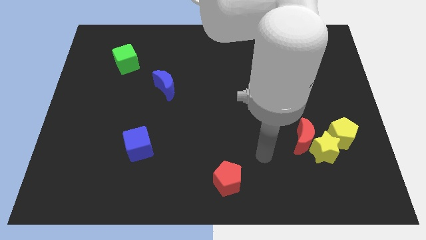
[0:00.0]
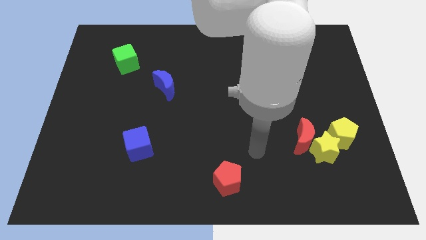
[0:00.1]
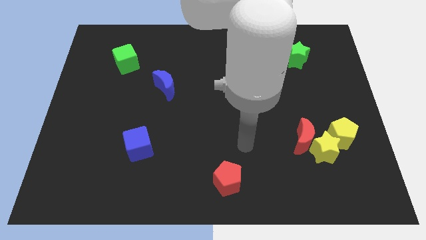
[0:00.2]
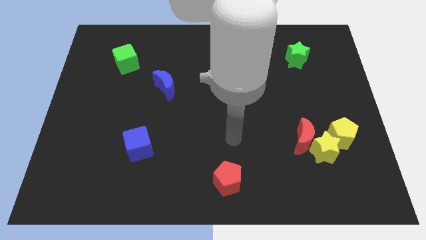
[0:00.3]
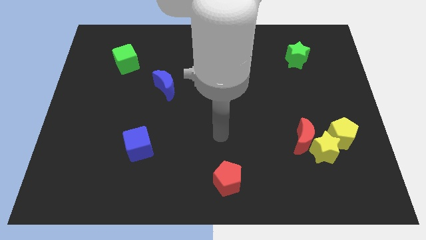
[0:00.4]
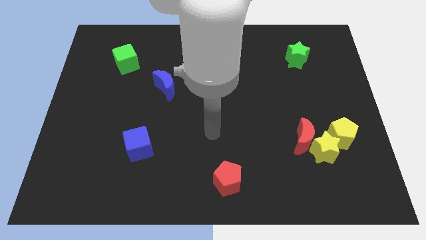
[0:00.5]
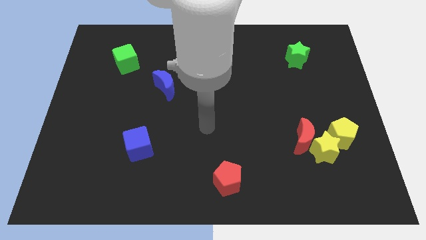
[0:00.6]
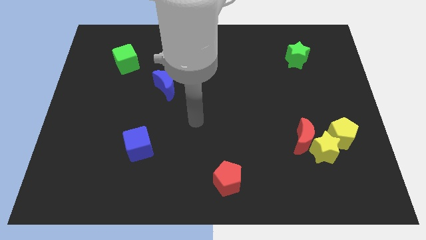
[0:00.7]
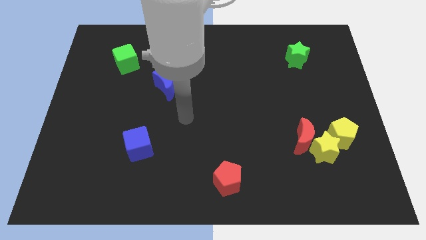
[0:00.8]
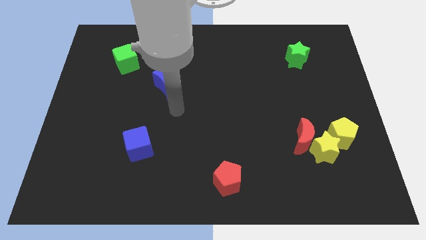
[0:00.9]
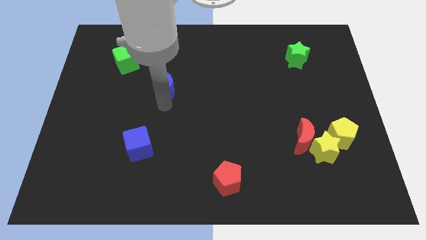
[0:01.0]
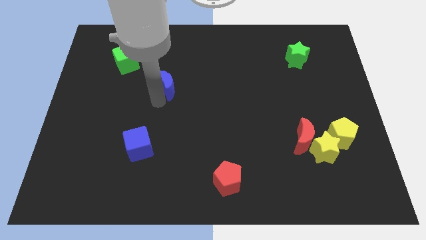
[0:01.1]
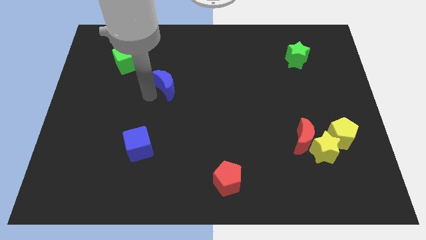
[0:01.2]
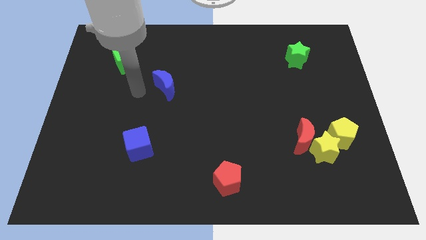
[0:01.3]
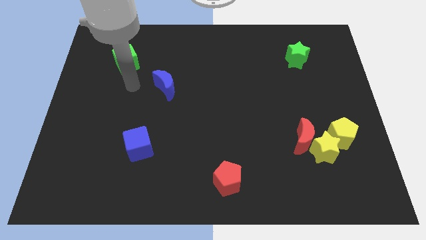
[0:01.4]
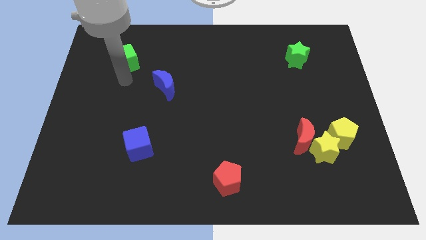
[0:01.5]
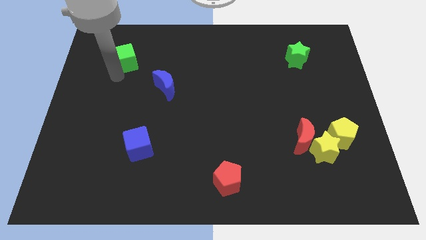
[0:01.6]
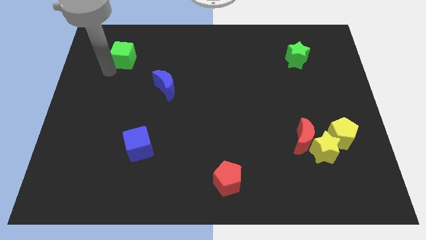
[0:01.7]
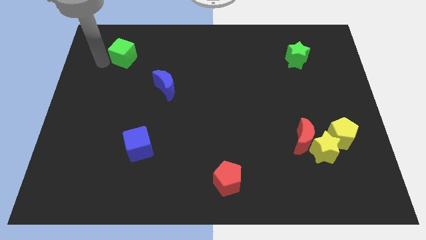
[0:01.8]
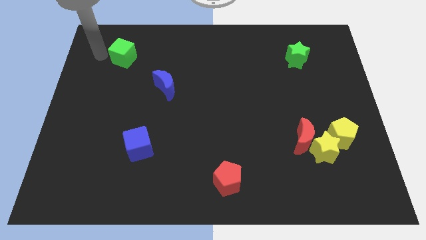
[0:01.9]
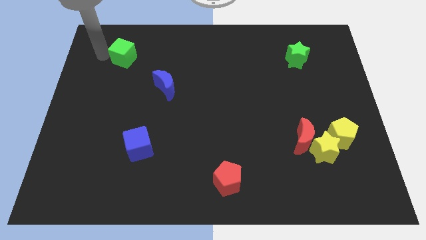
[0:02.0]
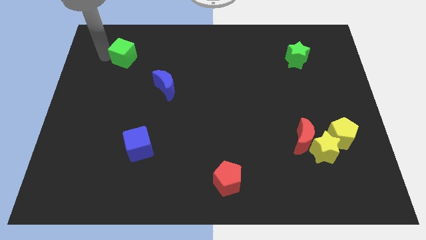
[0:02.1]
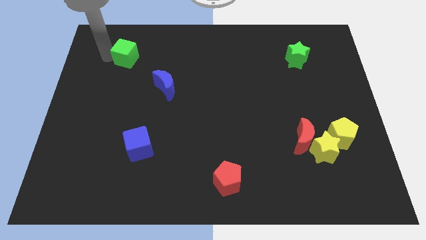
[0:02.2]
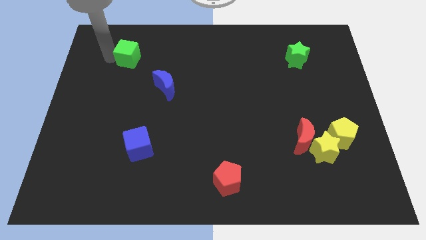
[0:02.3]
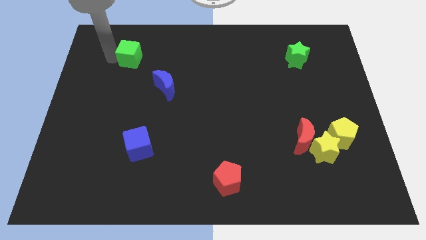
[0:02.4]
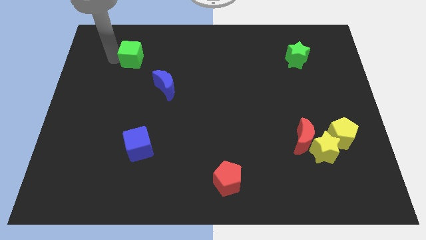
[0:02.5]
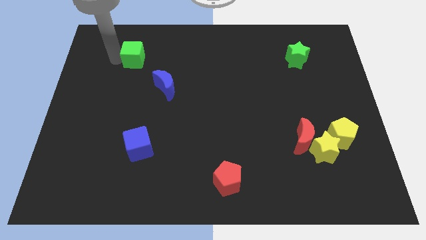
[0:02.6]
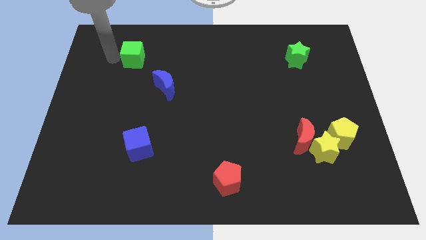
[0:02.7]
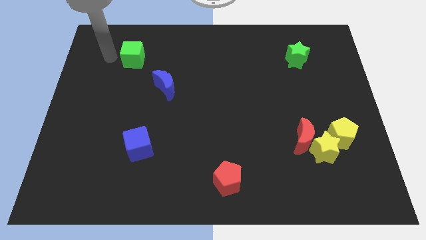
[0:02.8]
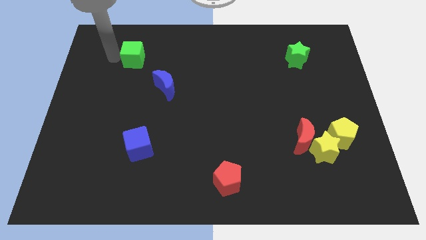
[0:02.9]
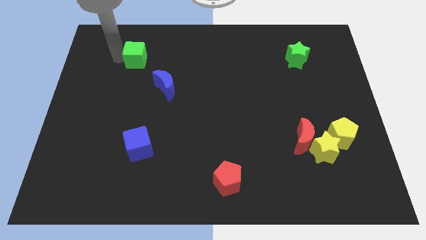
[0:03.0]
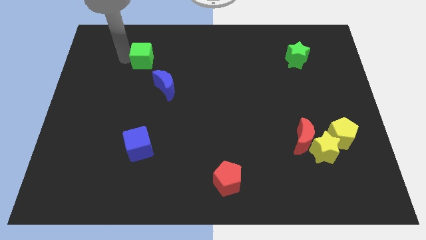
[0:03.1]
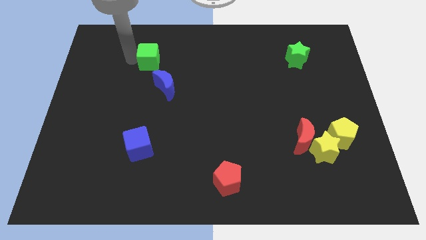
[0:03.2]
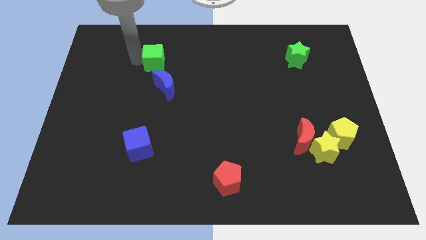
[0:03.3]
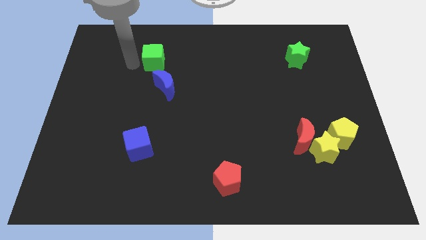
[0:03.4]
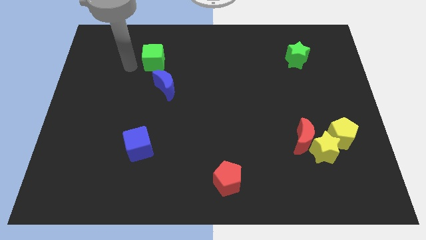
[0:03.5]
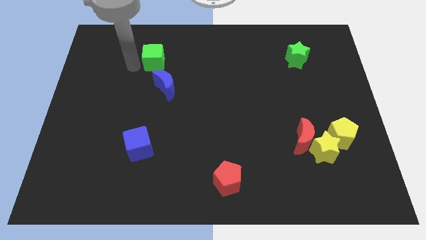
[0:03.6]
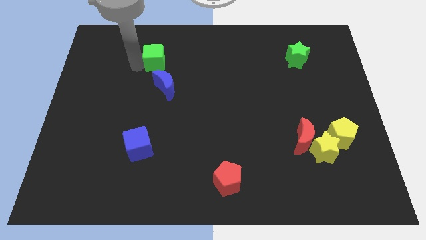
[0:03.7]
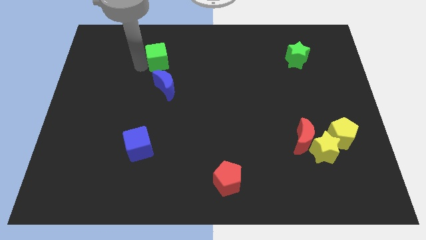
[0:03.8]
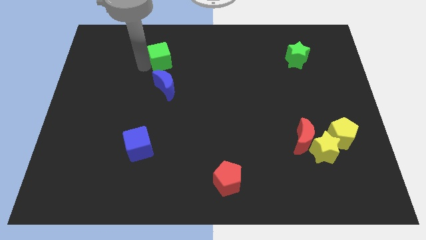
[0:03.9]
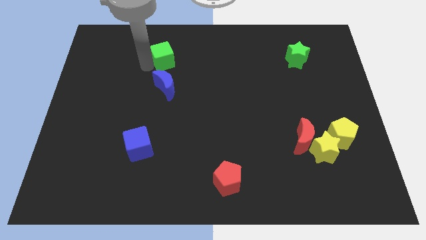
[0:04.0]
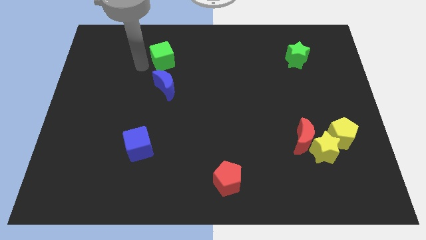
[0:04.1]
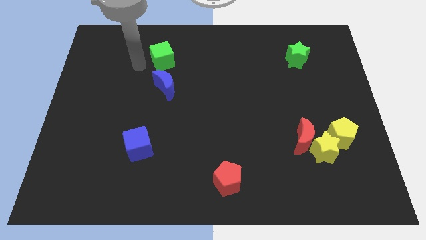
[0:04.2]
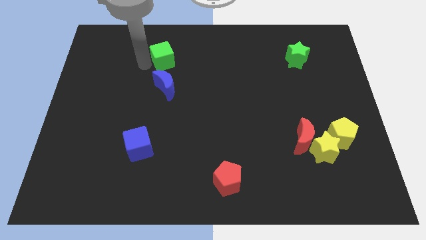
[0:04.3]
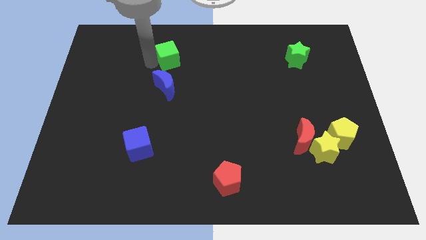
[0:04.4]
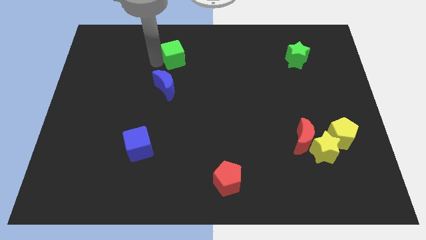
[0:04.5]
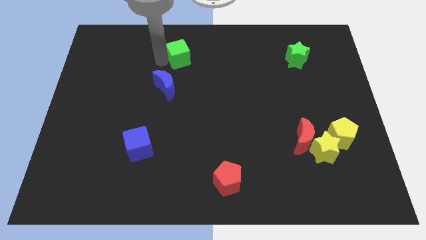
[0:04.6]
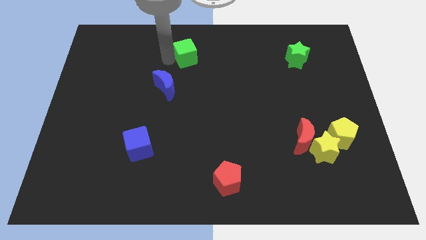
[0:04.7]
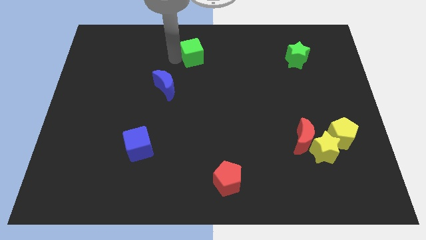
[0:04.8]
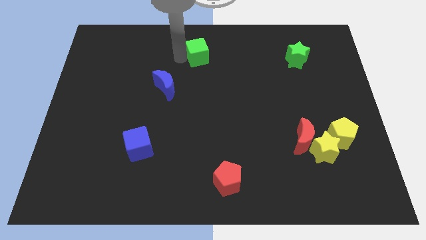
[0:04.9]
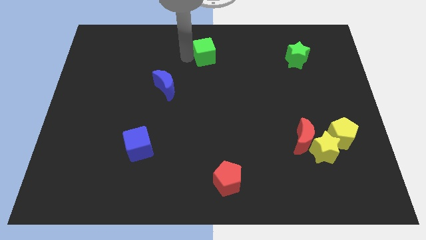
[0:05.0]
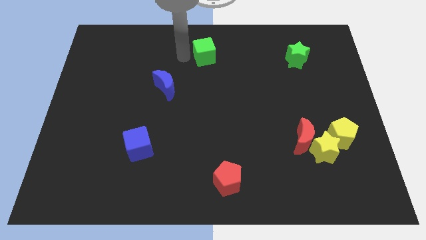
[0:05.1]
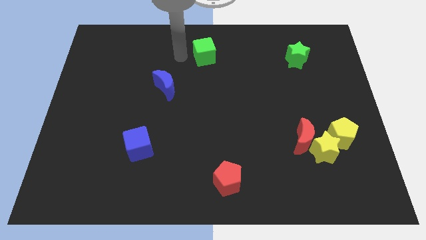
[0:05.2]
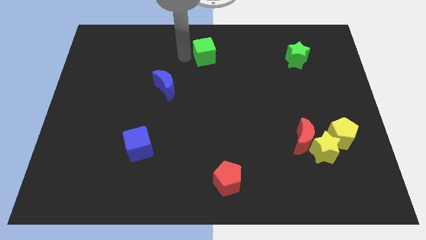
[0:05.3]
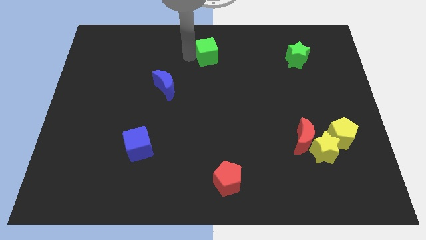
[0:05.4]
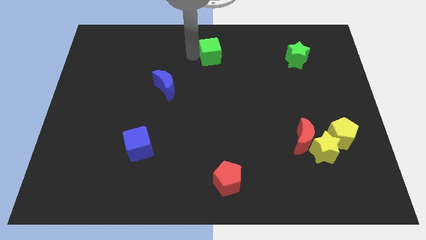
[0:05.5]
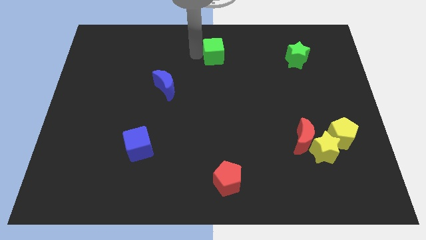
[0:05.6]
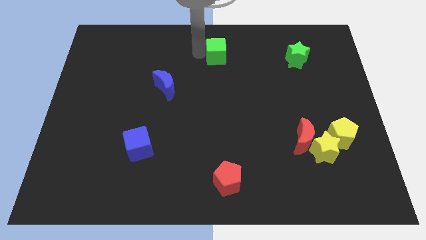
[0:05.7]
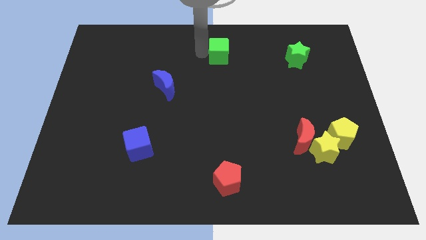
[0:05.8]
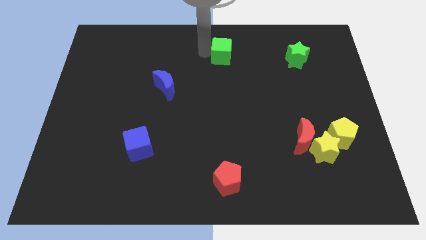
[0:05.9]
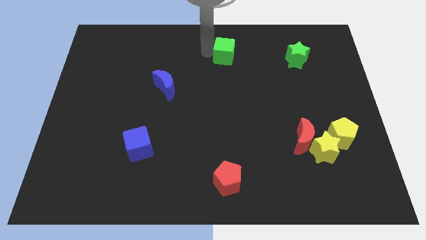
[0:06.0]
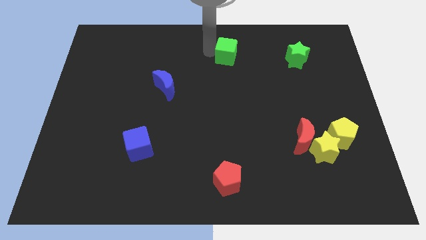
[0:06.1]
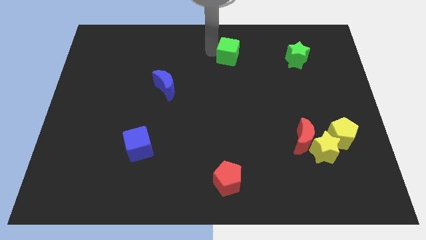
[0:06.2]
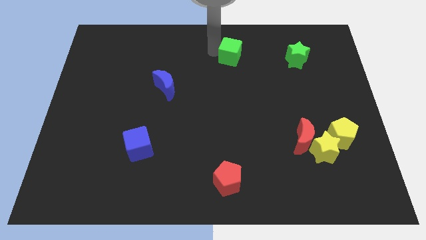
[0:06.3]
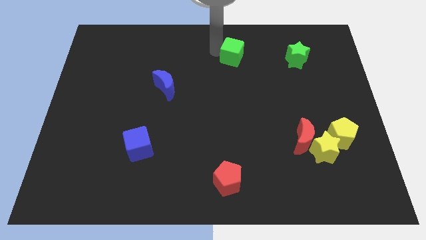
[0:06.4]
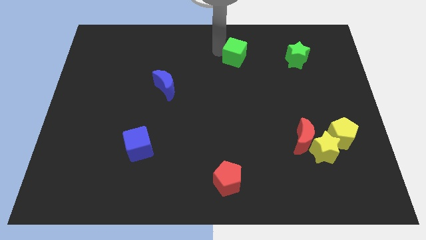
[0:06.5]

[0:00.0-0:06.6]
push the green cube left of the green star

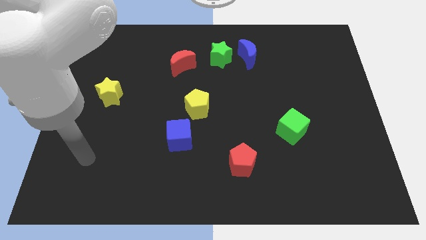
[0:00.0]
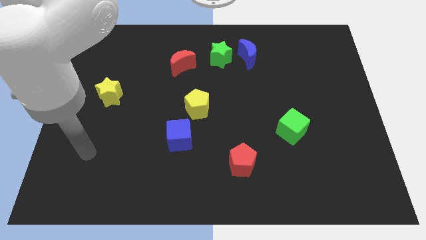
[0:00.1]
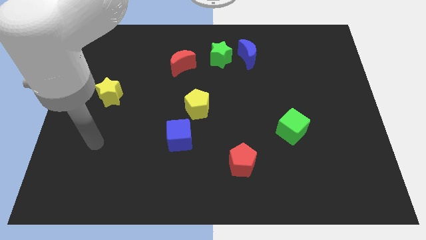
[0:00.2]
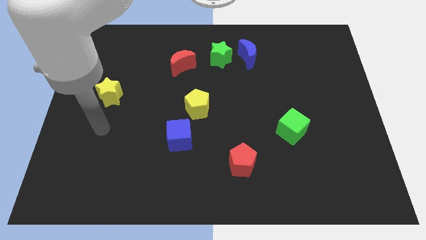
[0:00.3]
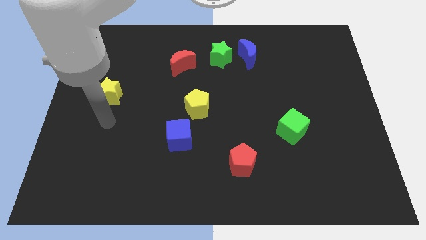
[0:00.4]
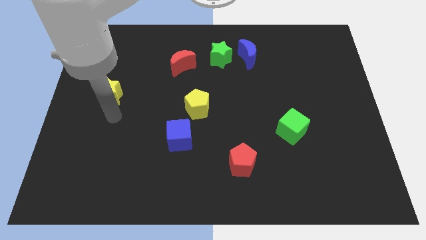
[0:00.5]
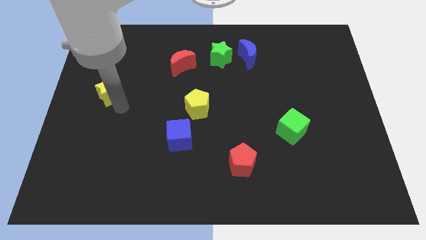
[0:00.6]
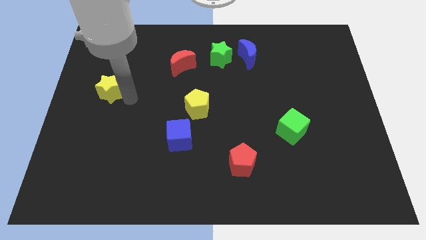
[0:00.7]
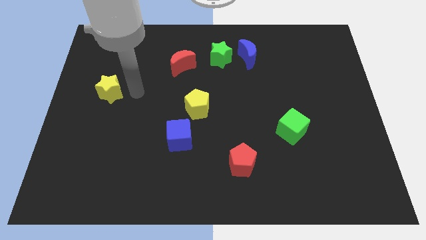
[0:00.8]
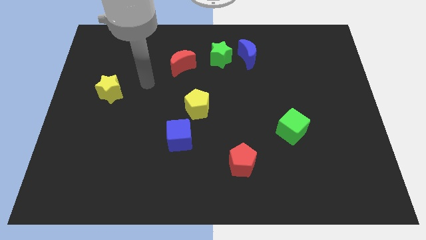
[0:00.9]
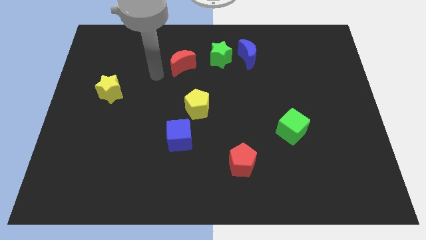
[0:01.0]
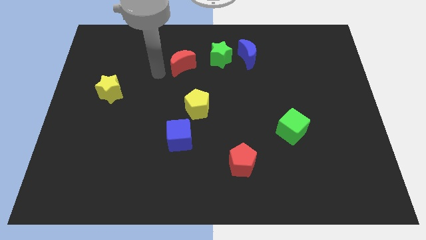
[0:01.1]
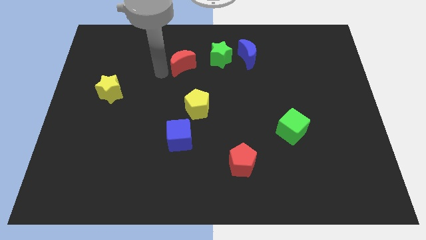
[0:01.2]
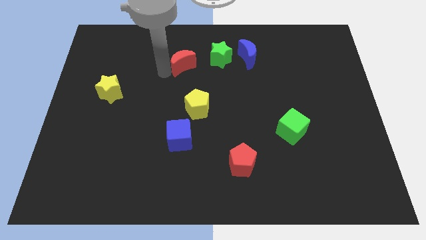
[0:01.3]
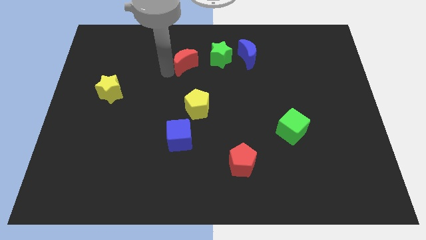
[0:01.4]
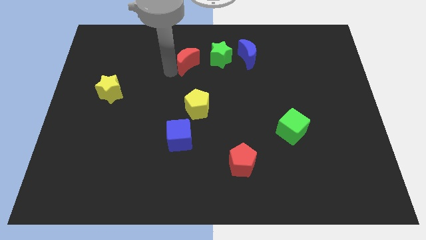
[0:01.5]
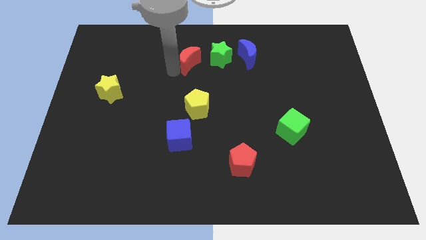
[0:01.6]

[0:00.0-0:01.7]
slide the red moon just left of the blue moon
